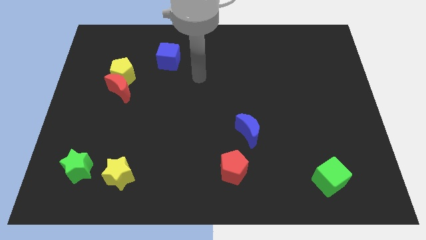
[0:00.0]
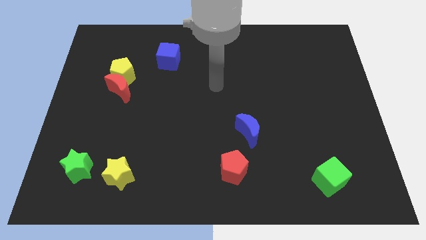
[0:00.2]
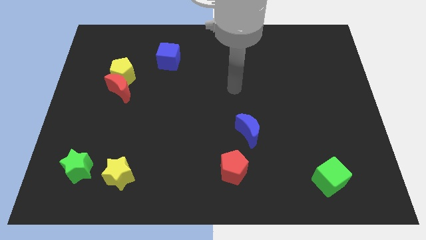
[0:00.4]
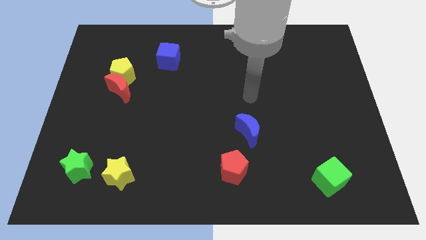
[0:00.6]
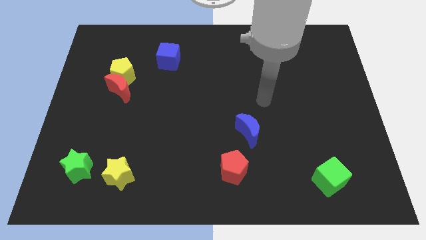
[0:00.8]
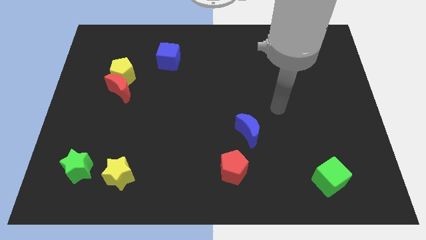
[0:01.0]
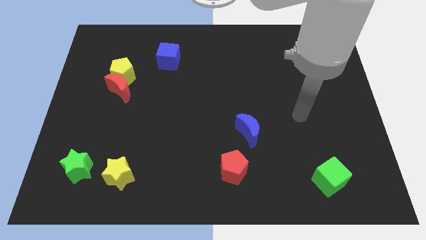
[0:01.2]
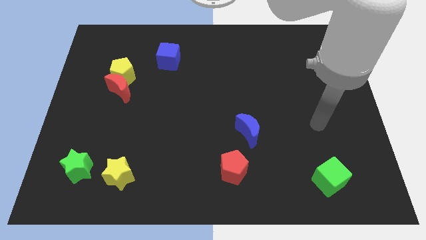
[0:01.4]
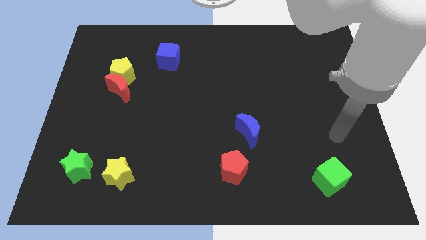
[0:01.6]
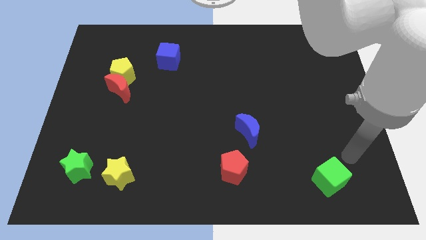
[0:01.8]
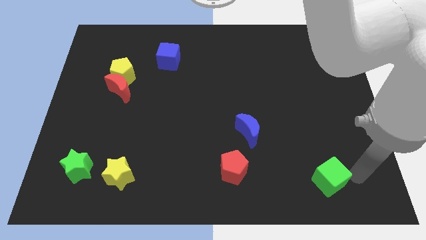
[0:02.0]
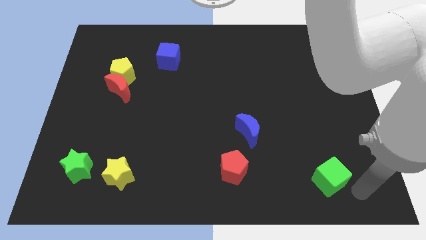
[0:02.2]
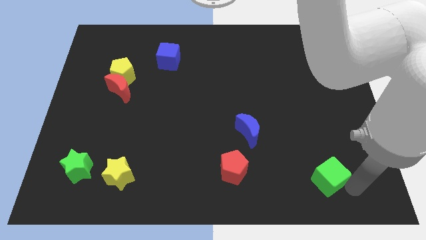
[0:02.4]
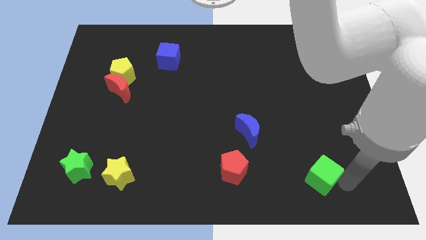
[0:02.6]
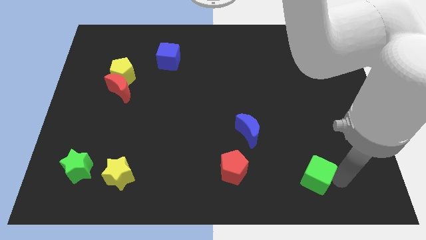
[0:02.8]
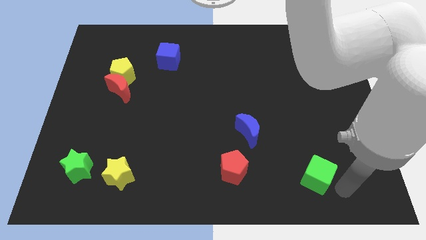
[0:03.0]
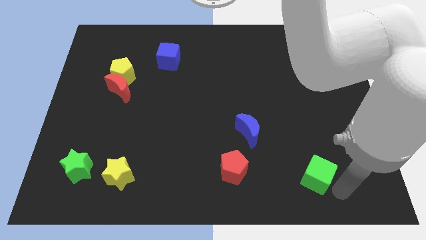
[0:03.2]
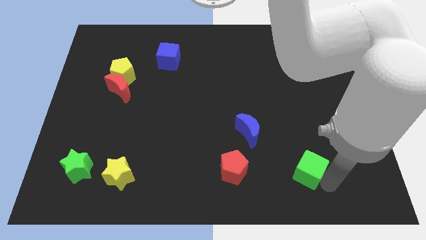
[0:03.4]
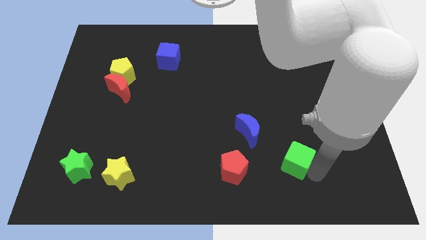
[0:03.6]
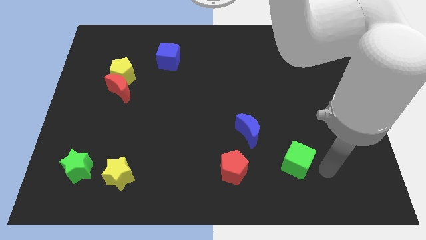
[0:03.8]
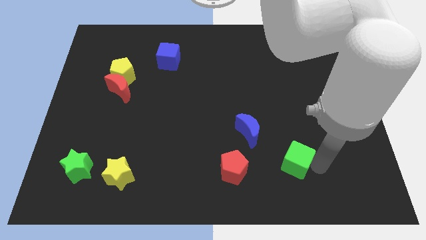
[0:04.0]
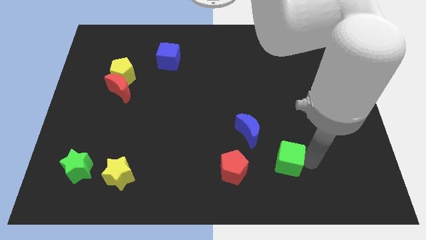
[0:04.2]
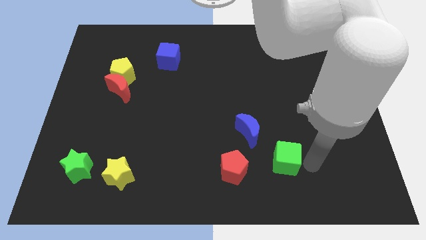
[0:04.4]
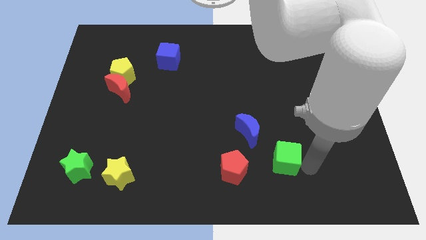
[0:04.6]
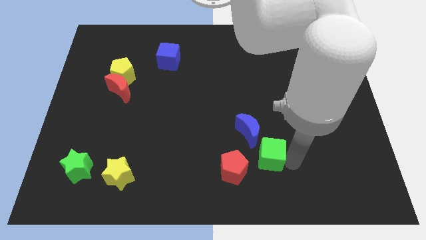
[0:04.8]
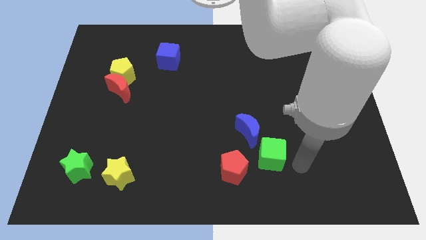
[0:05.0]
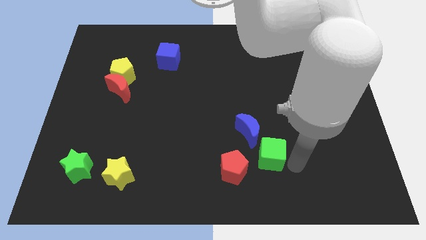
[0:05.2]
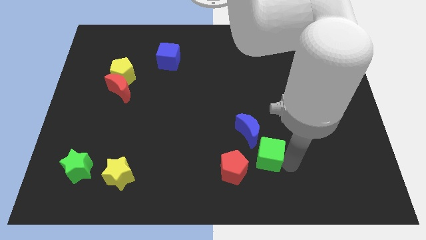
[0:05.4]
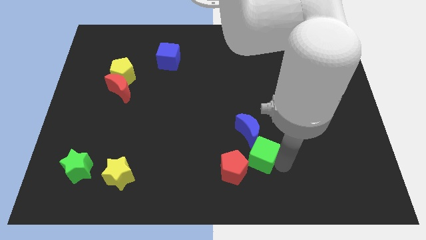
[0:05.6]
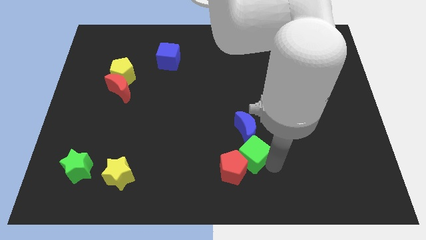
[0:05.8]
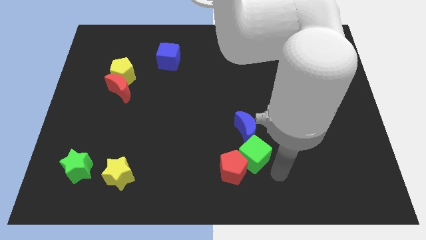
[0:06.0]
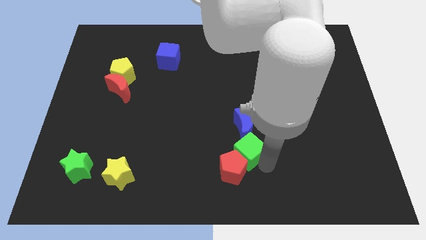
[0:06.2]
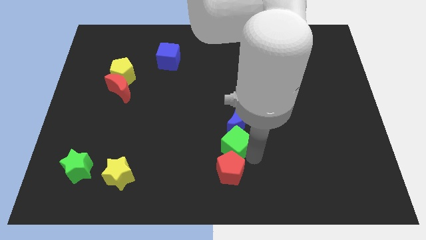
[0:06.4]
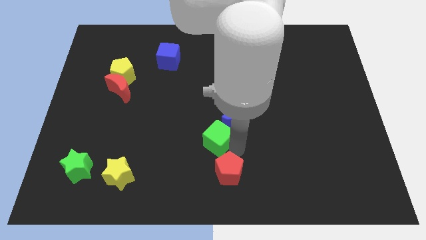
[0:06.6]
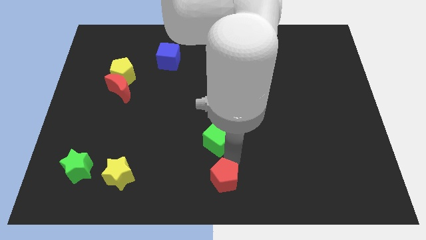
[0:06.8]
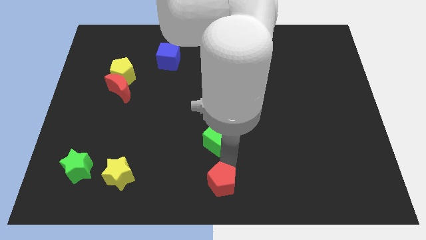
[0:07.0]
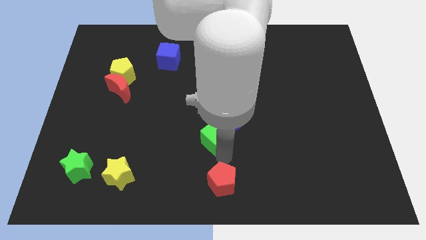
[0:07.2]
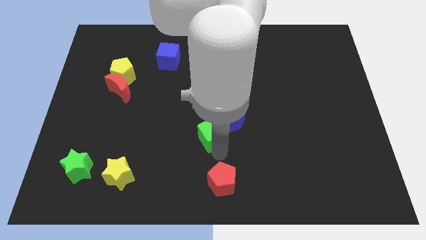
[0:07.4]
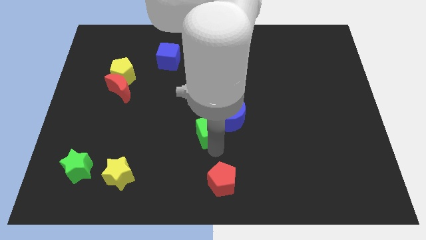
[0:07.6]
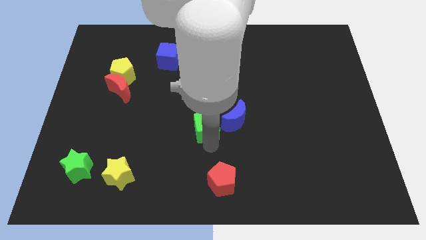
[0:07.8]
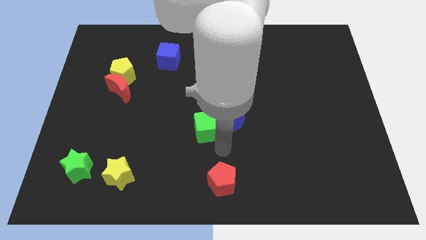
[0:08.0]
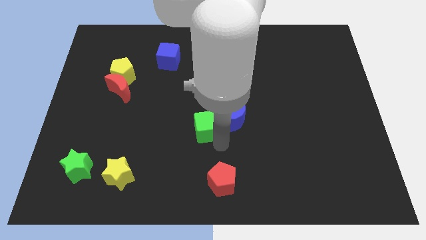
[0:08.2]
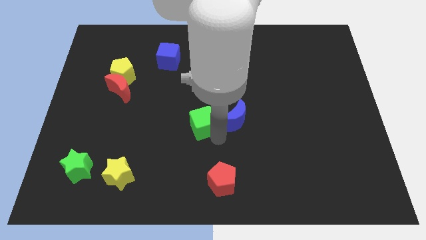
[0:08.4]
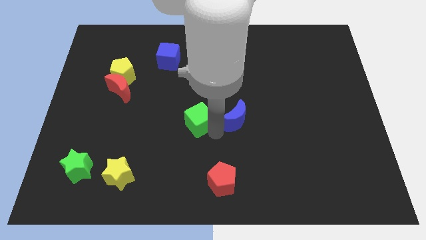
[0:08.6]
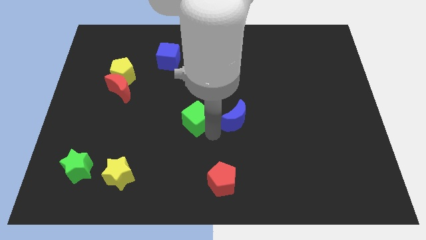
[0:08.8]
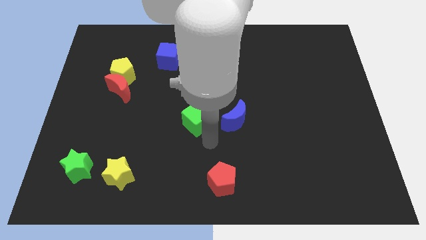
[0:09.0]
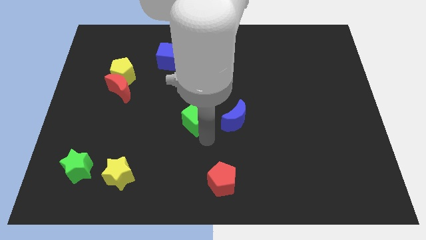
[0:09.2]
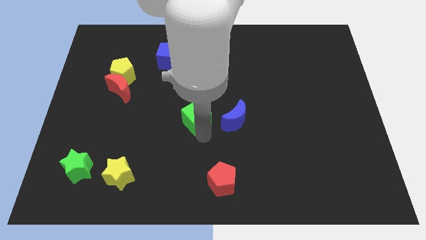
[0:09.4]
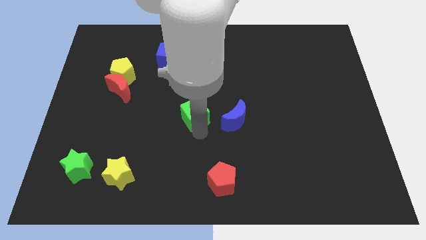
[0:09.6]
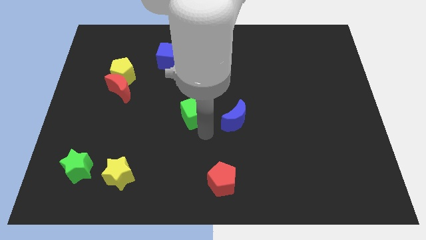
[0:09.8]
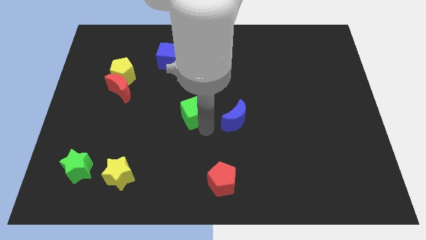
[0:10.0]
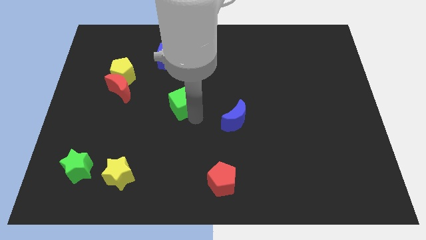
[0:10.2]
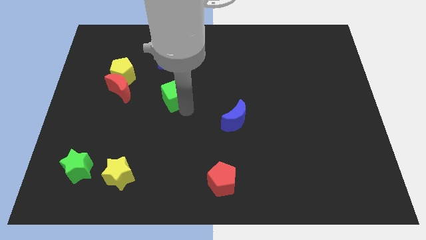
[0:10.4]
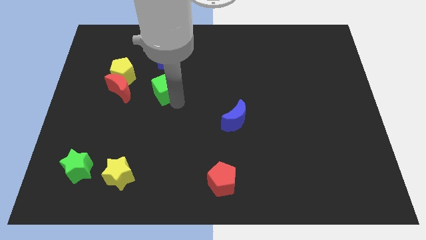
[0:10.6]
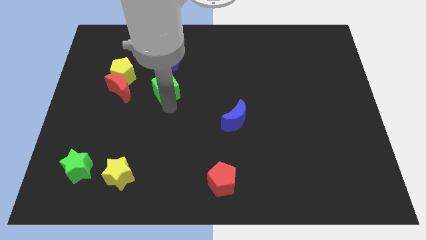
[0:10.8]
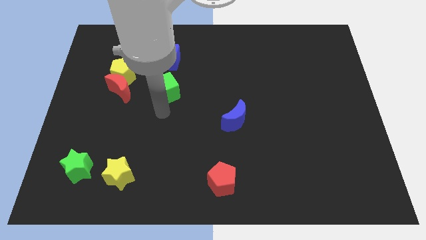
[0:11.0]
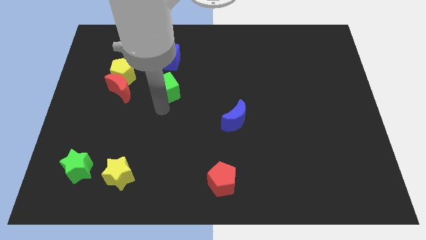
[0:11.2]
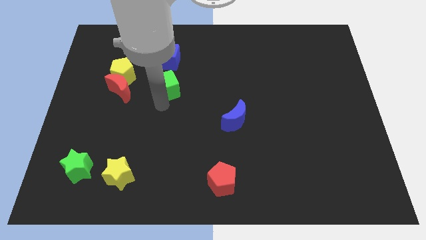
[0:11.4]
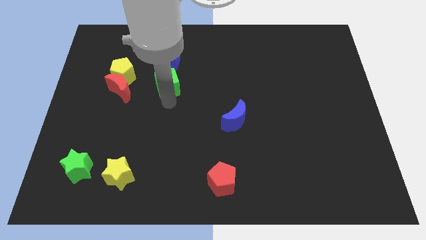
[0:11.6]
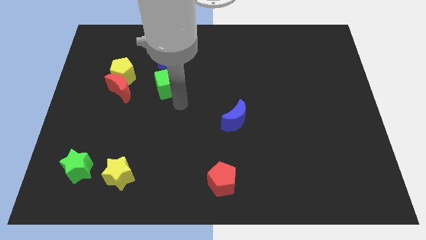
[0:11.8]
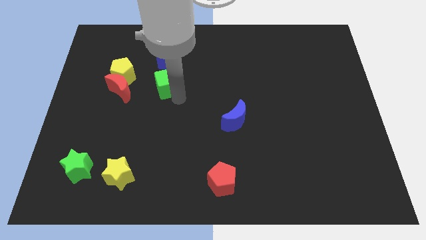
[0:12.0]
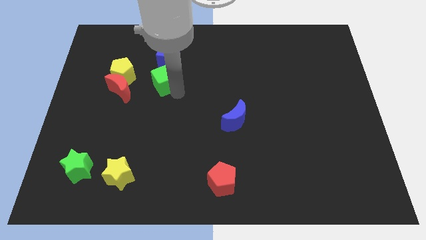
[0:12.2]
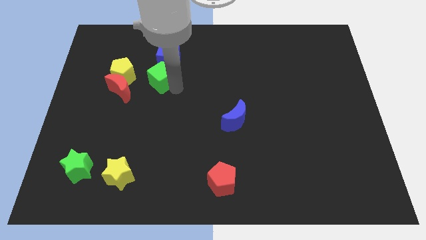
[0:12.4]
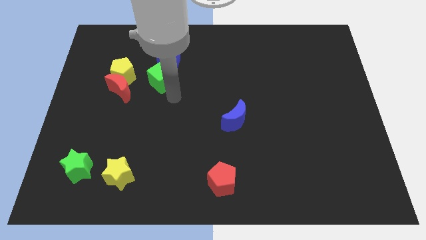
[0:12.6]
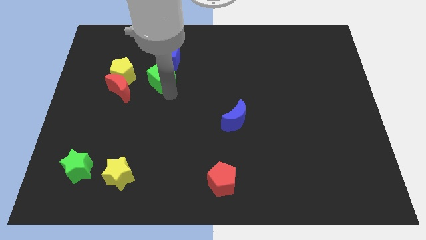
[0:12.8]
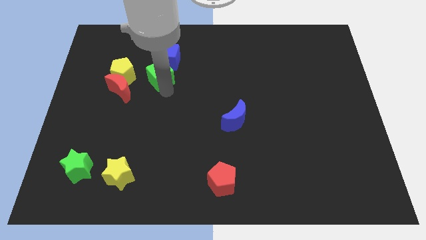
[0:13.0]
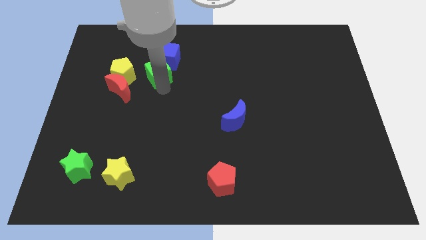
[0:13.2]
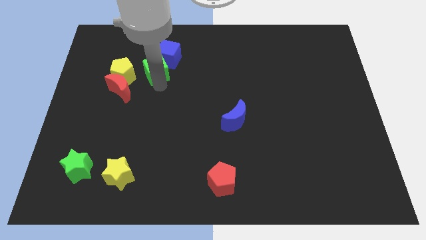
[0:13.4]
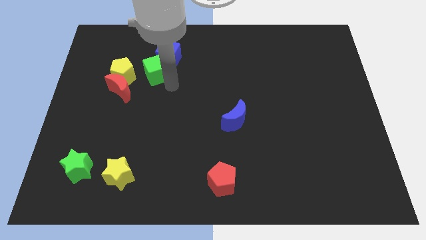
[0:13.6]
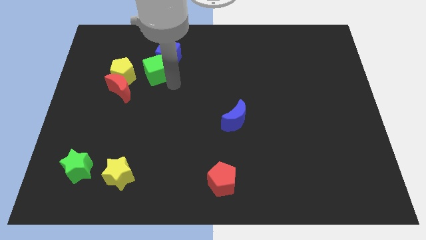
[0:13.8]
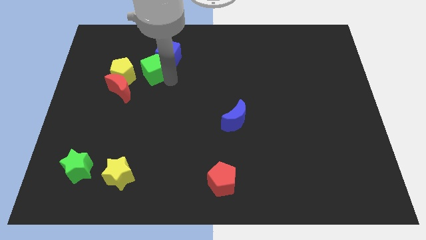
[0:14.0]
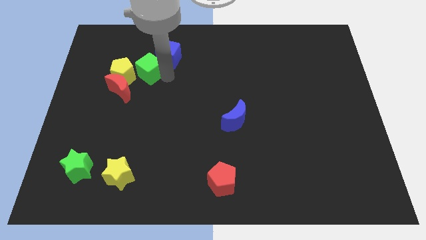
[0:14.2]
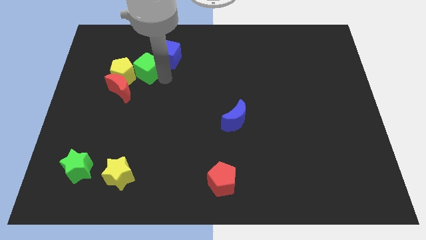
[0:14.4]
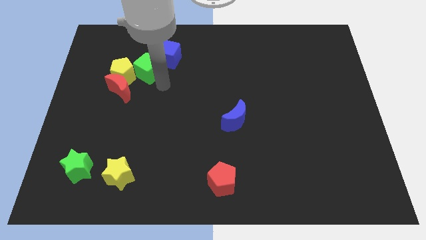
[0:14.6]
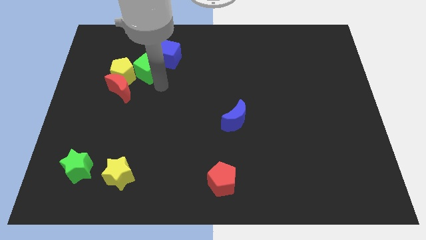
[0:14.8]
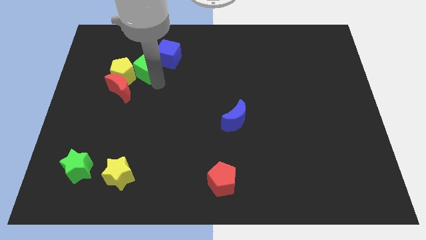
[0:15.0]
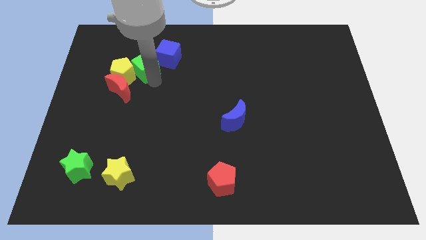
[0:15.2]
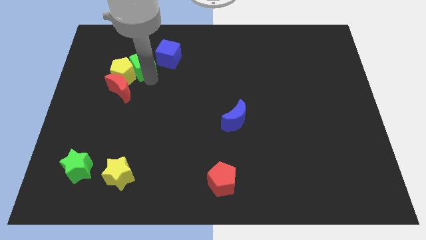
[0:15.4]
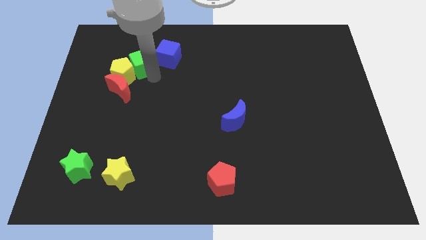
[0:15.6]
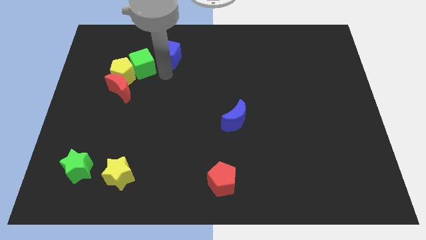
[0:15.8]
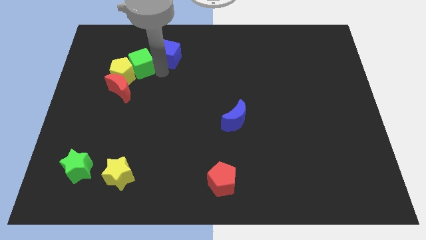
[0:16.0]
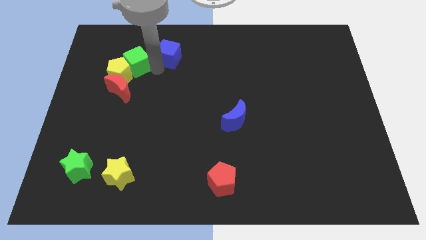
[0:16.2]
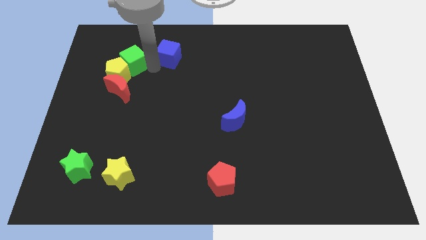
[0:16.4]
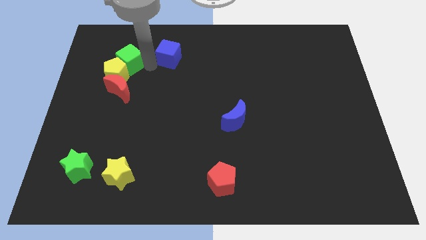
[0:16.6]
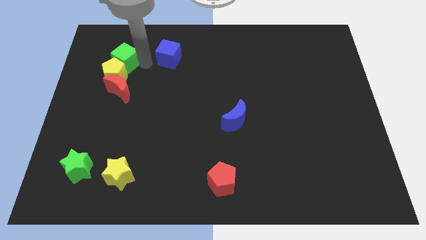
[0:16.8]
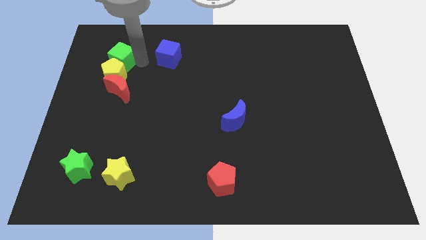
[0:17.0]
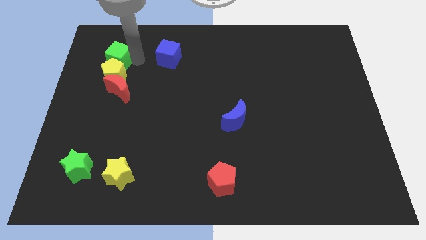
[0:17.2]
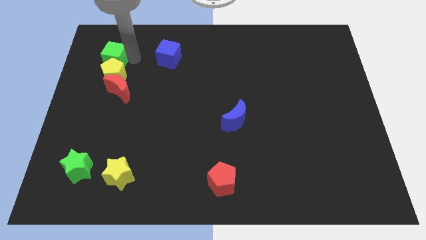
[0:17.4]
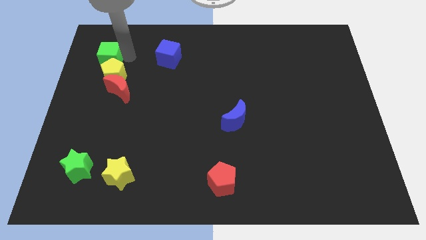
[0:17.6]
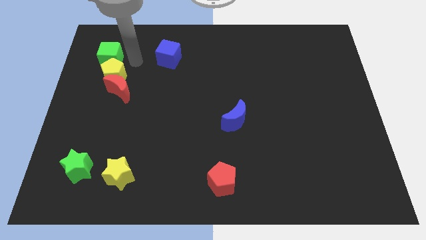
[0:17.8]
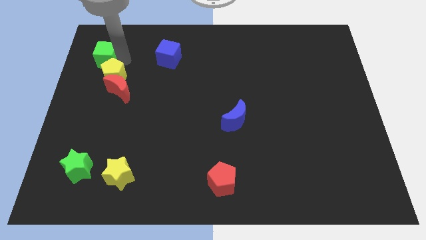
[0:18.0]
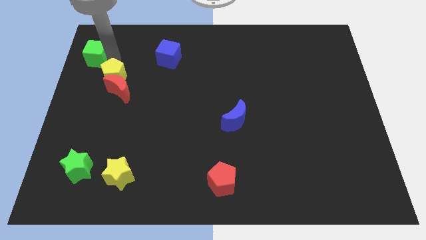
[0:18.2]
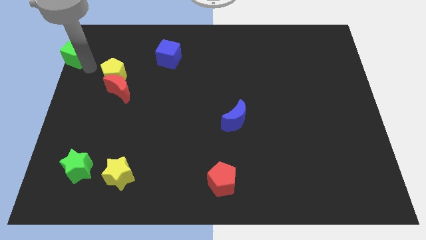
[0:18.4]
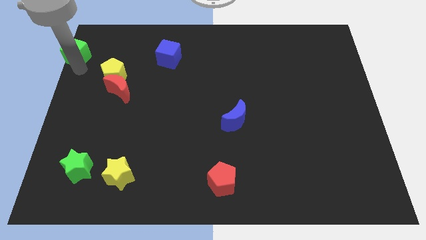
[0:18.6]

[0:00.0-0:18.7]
put the green cube to the upper left corner
